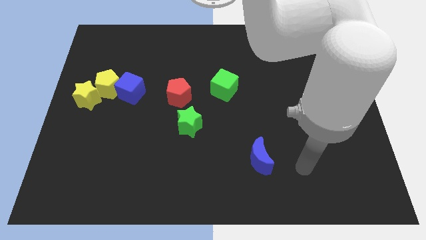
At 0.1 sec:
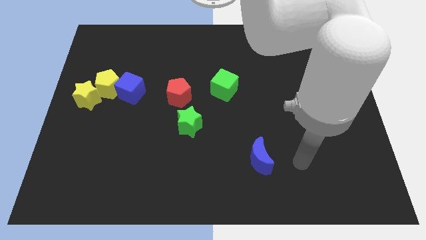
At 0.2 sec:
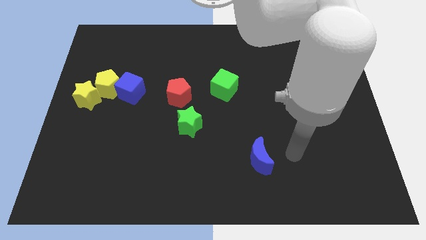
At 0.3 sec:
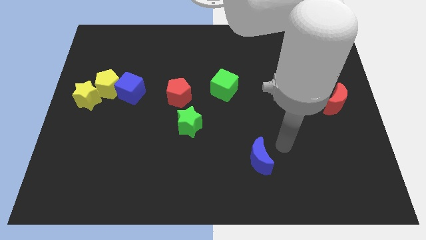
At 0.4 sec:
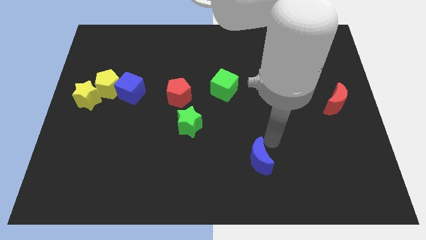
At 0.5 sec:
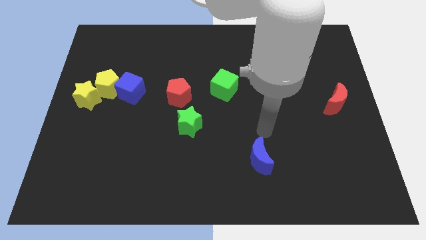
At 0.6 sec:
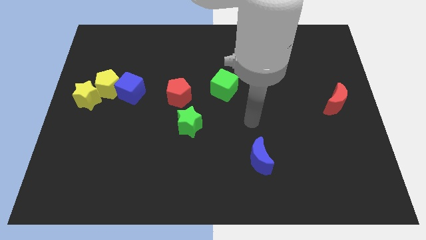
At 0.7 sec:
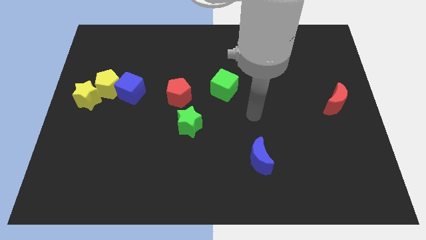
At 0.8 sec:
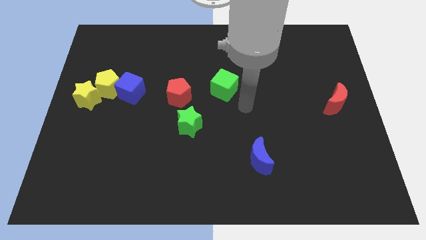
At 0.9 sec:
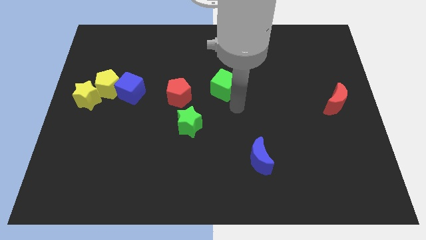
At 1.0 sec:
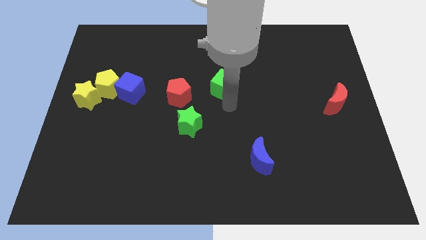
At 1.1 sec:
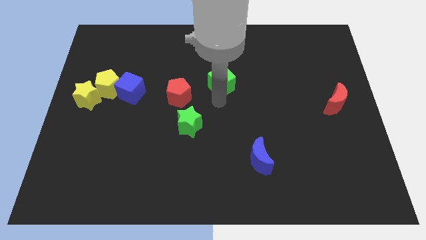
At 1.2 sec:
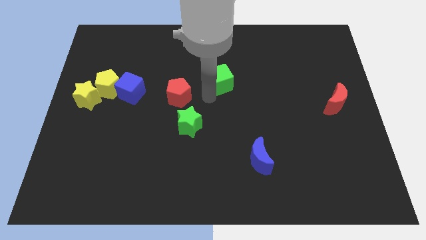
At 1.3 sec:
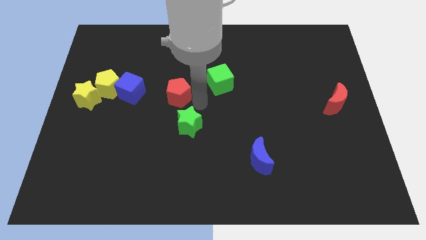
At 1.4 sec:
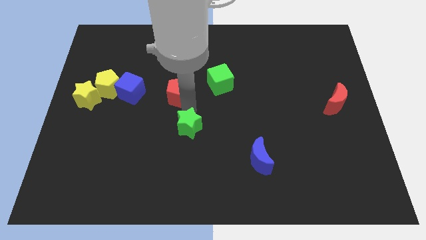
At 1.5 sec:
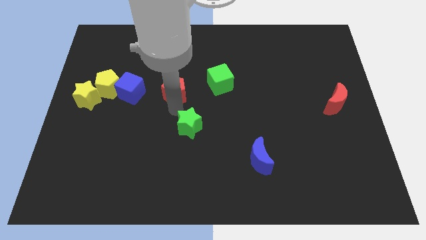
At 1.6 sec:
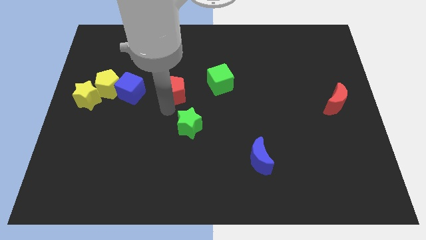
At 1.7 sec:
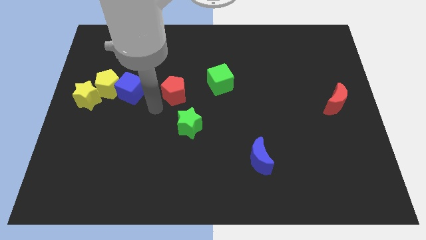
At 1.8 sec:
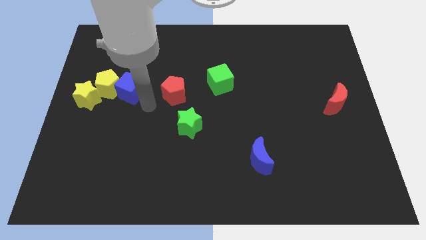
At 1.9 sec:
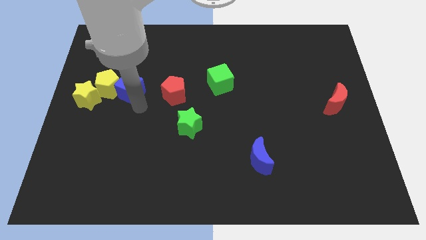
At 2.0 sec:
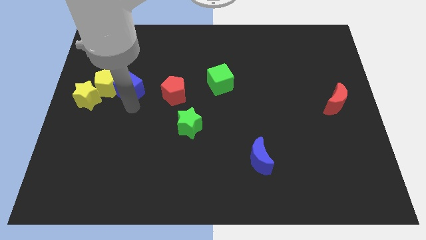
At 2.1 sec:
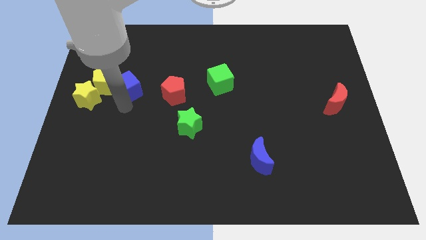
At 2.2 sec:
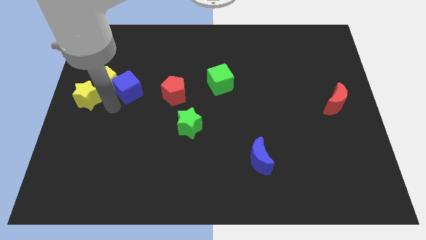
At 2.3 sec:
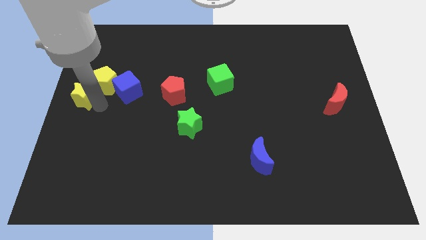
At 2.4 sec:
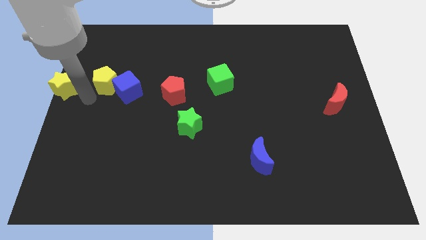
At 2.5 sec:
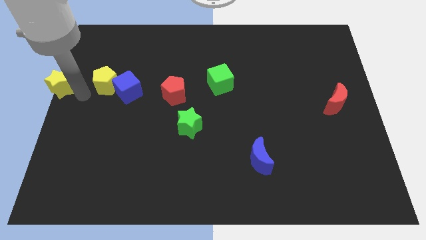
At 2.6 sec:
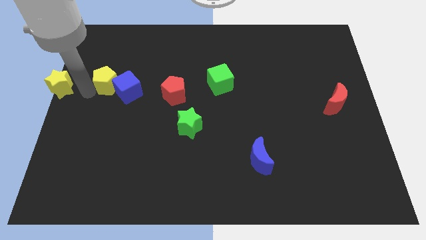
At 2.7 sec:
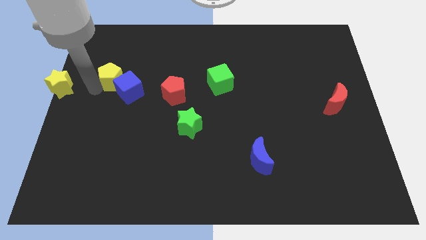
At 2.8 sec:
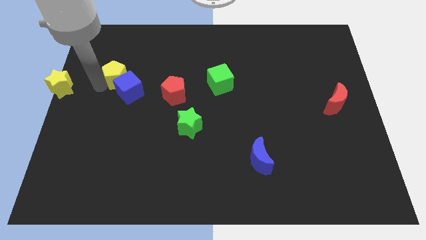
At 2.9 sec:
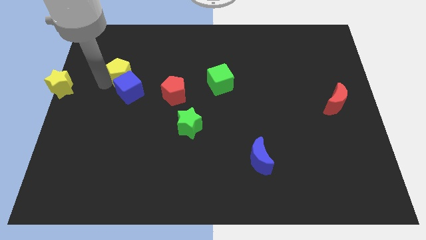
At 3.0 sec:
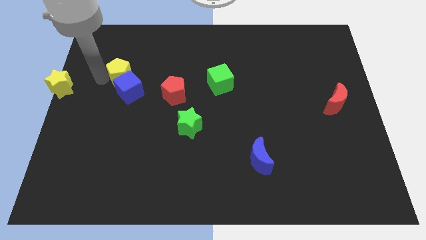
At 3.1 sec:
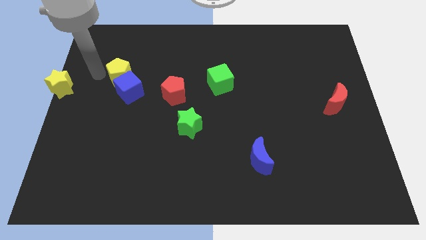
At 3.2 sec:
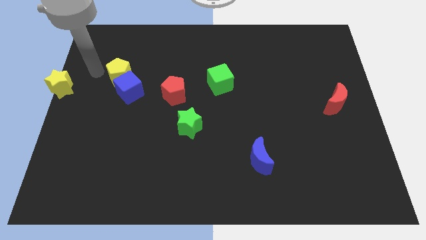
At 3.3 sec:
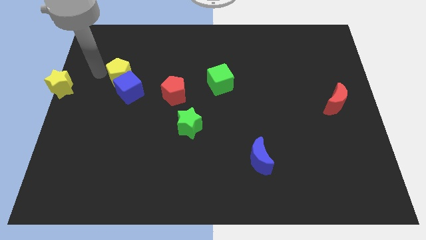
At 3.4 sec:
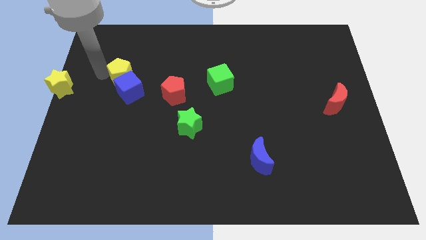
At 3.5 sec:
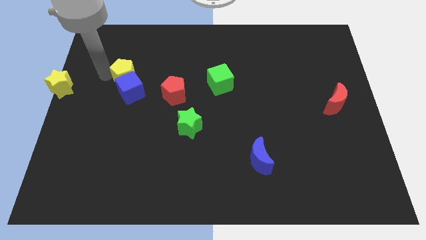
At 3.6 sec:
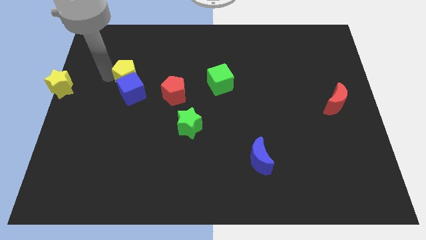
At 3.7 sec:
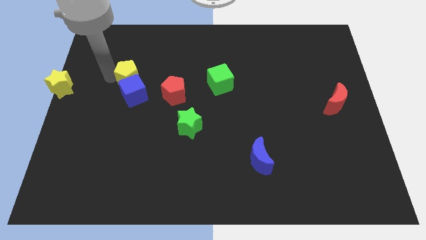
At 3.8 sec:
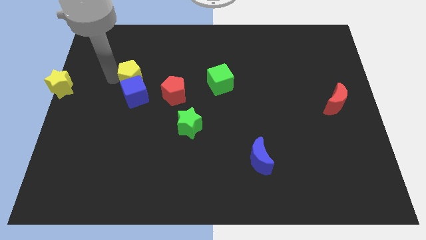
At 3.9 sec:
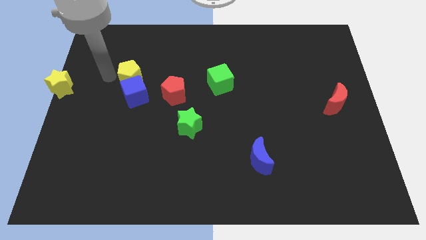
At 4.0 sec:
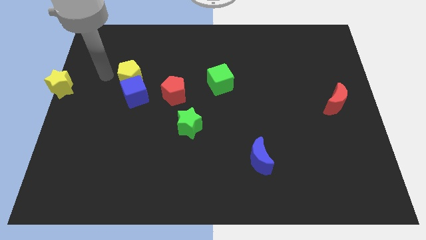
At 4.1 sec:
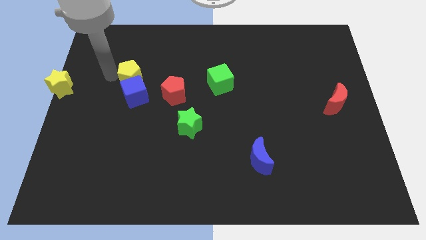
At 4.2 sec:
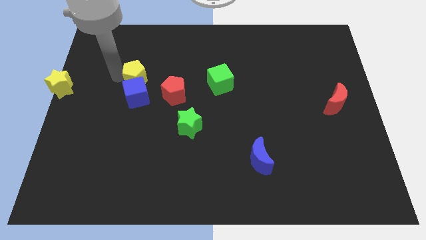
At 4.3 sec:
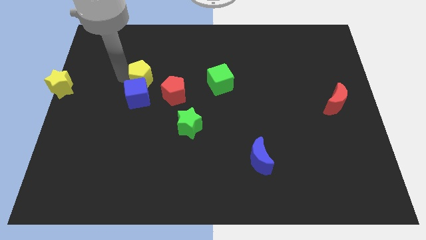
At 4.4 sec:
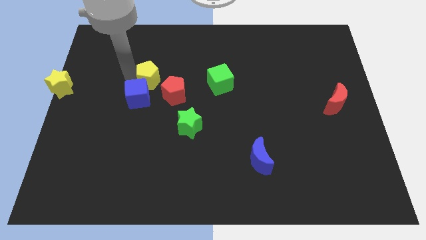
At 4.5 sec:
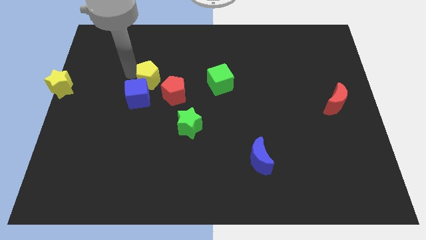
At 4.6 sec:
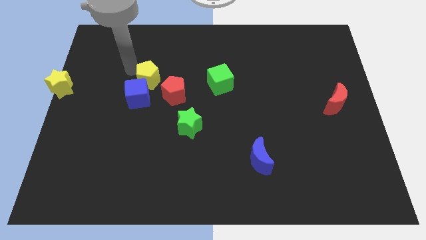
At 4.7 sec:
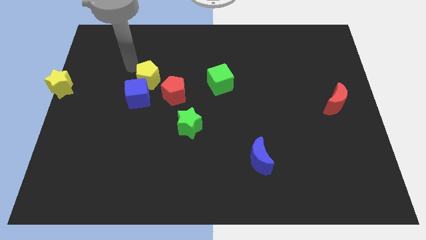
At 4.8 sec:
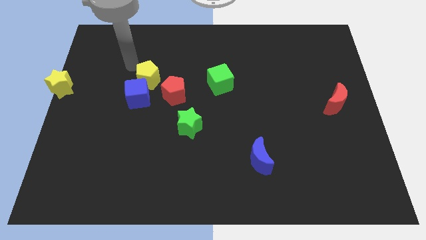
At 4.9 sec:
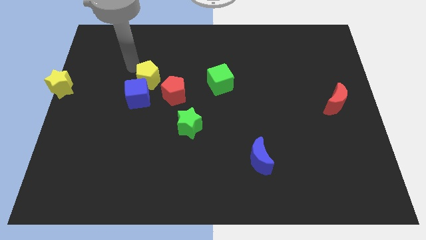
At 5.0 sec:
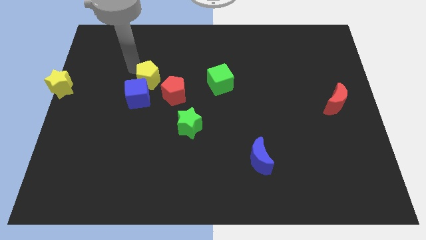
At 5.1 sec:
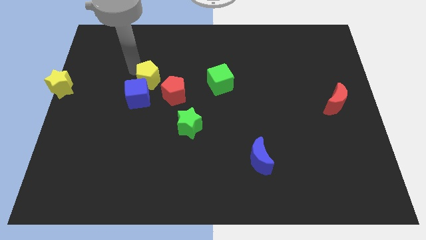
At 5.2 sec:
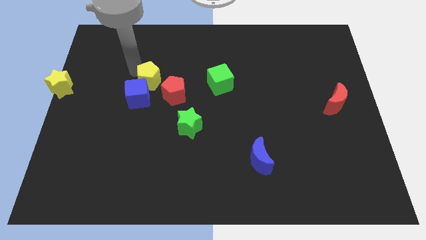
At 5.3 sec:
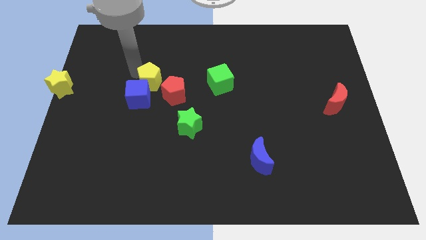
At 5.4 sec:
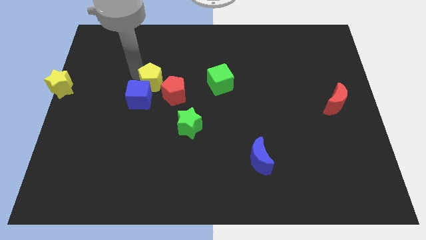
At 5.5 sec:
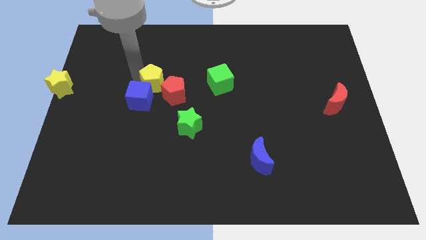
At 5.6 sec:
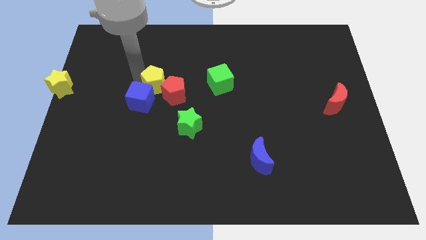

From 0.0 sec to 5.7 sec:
push the yellow pentagon close to the red pentagon

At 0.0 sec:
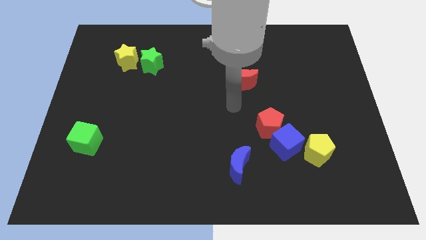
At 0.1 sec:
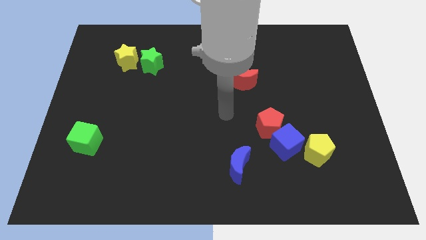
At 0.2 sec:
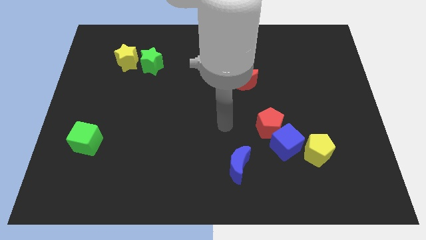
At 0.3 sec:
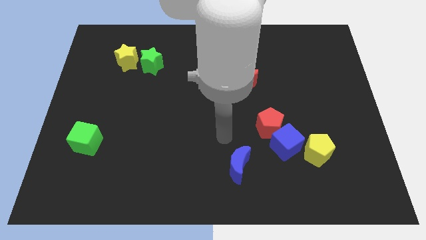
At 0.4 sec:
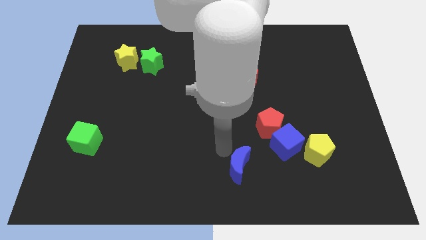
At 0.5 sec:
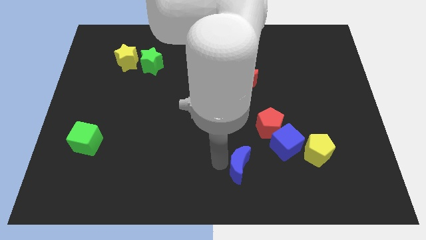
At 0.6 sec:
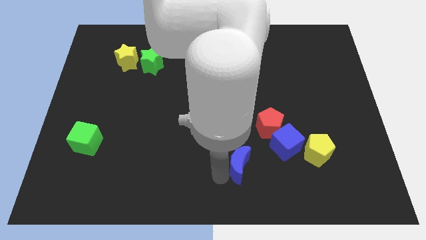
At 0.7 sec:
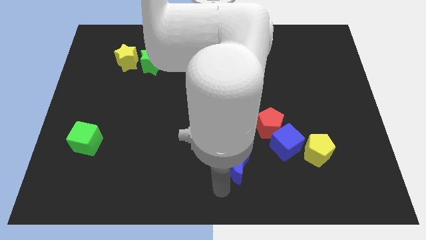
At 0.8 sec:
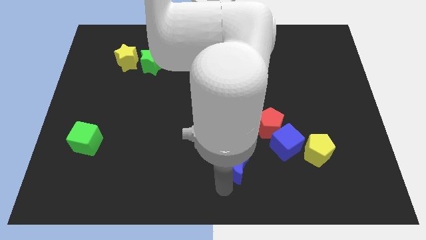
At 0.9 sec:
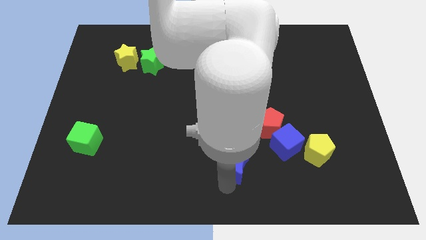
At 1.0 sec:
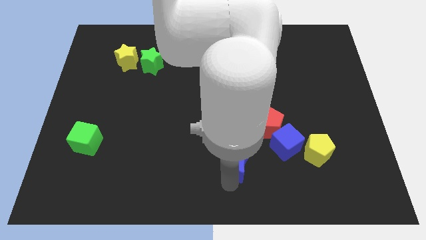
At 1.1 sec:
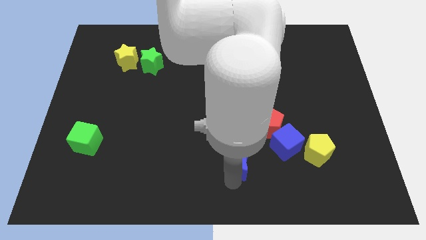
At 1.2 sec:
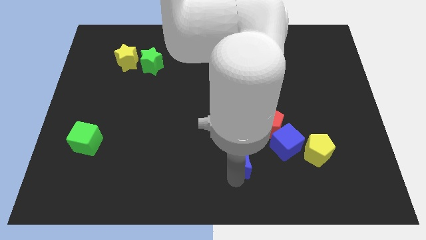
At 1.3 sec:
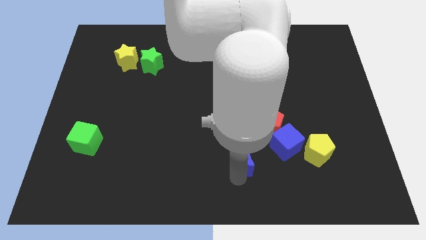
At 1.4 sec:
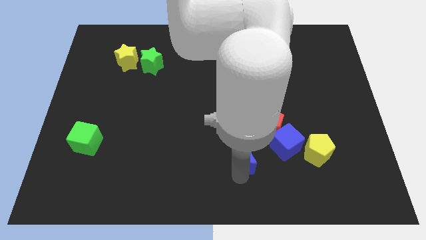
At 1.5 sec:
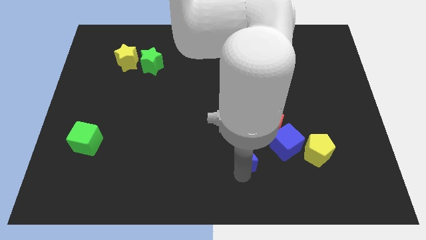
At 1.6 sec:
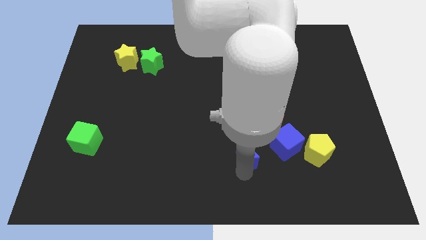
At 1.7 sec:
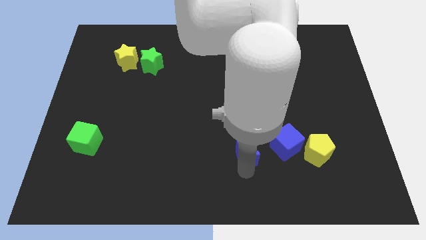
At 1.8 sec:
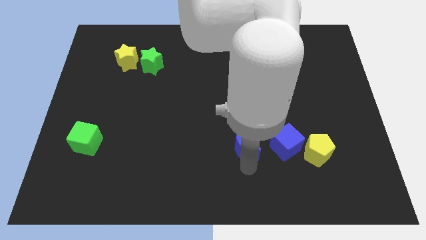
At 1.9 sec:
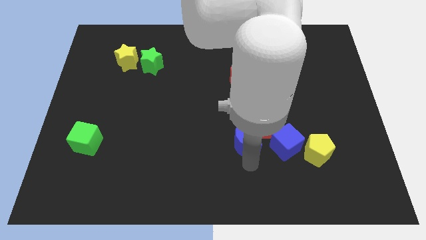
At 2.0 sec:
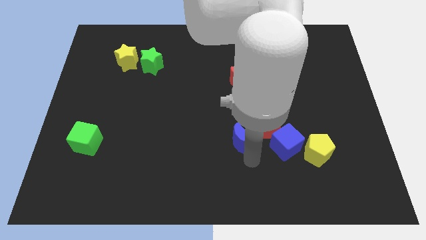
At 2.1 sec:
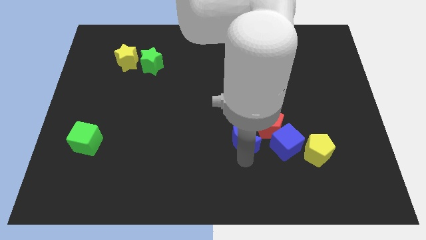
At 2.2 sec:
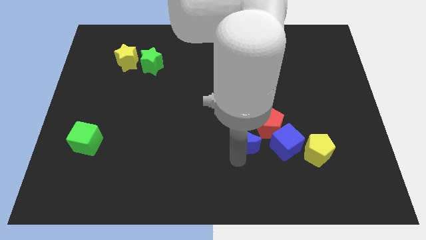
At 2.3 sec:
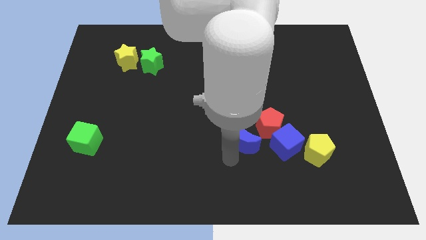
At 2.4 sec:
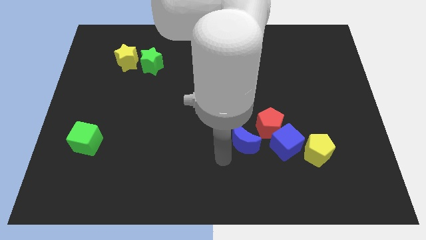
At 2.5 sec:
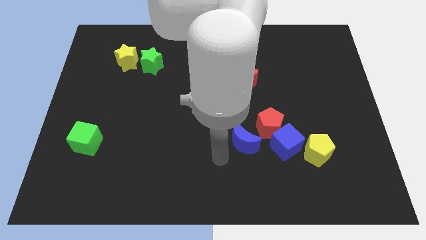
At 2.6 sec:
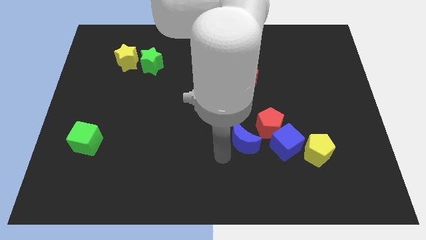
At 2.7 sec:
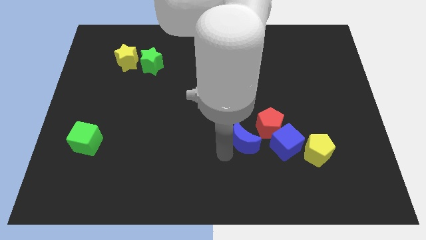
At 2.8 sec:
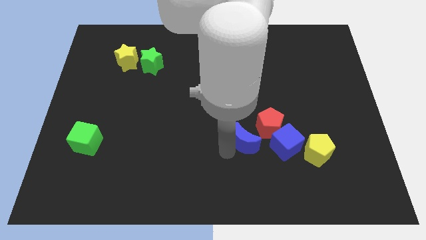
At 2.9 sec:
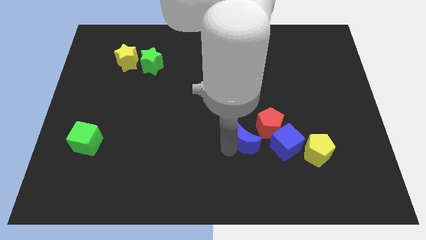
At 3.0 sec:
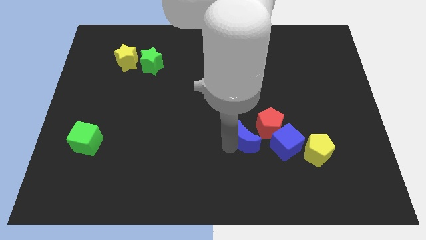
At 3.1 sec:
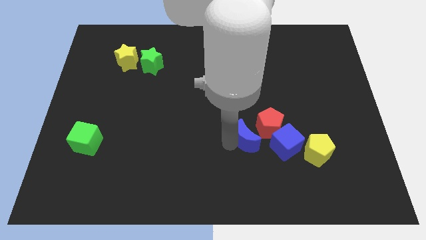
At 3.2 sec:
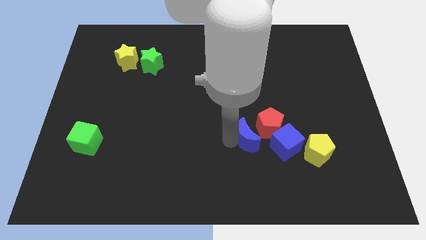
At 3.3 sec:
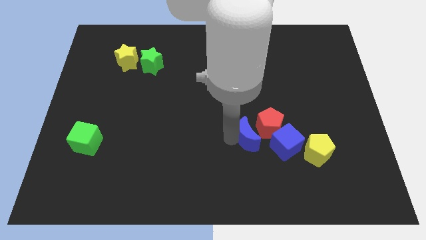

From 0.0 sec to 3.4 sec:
move the blue moon close to the red pentagon
